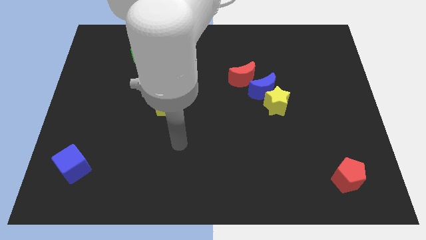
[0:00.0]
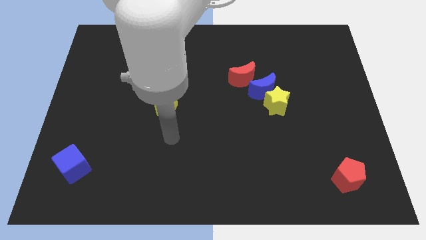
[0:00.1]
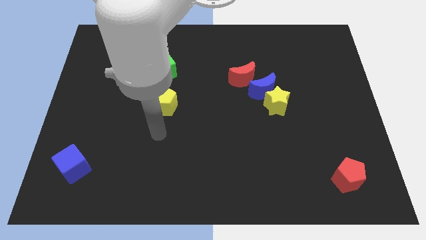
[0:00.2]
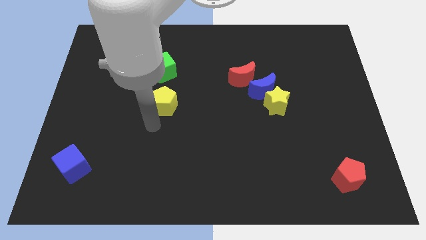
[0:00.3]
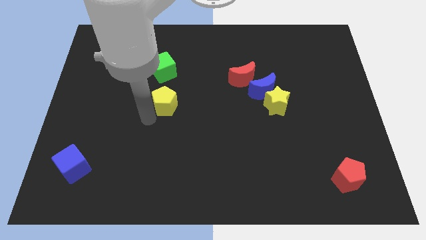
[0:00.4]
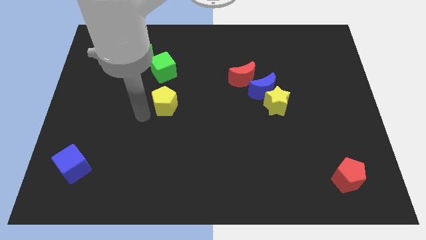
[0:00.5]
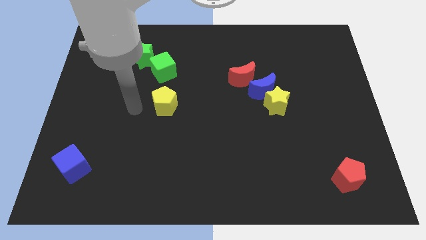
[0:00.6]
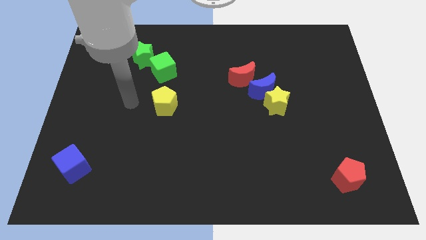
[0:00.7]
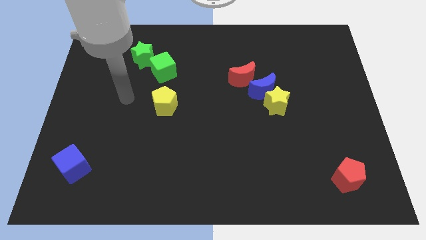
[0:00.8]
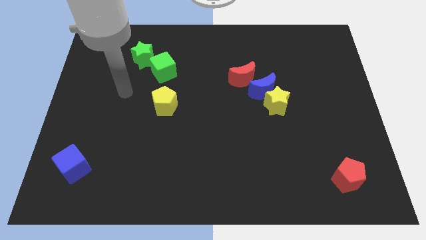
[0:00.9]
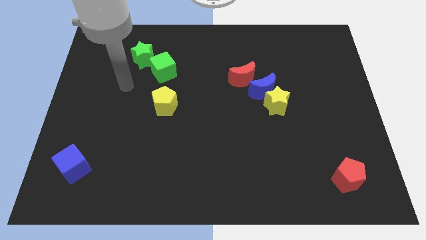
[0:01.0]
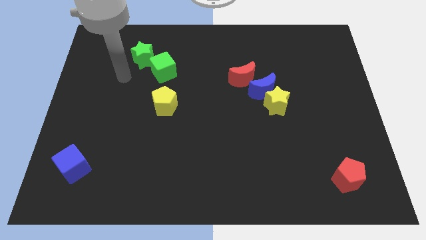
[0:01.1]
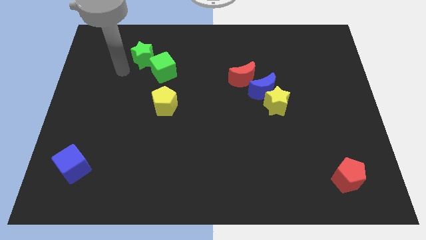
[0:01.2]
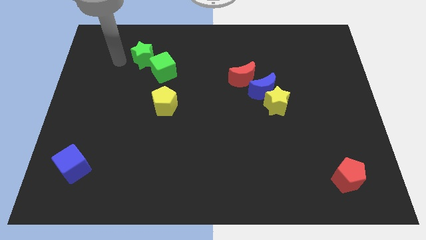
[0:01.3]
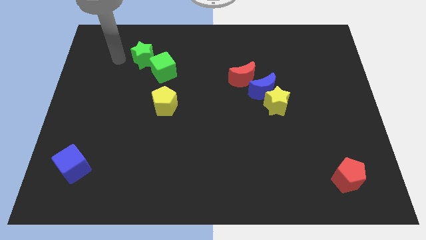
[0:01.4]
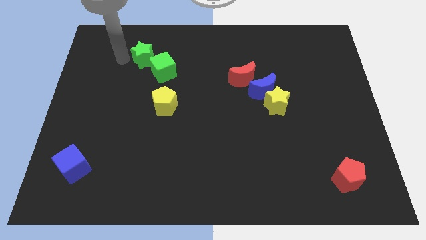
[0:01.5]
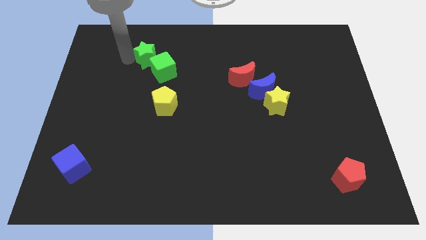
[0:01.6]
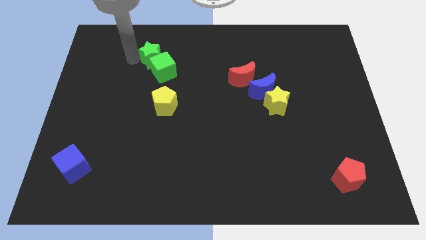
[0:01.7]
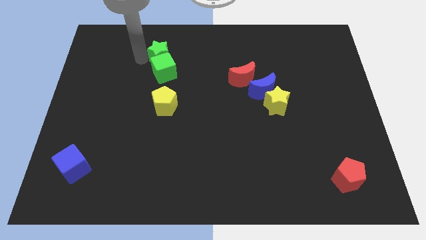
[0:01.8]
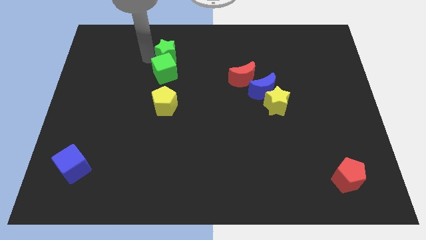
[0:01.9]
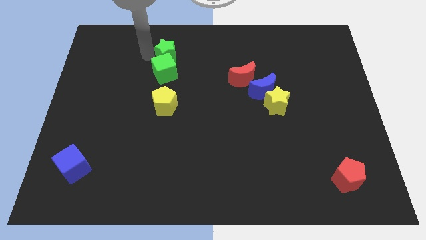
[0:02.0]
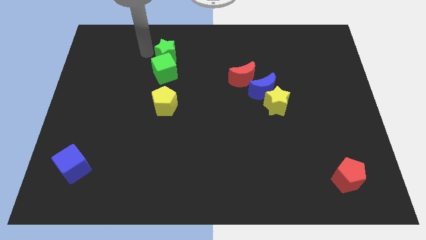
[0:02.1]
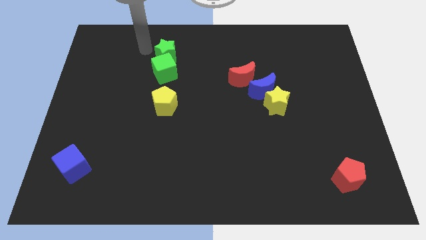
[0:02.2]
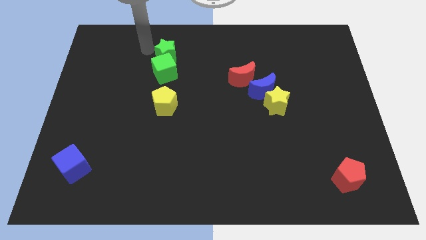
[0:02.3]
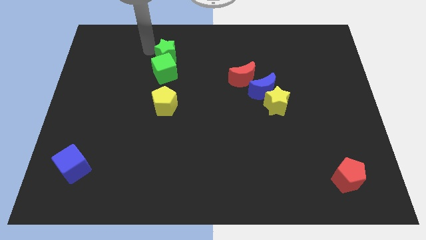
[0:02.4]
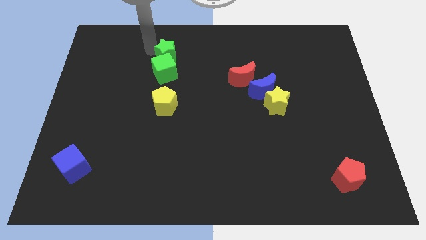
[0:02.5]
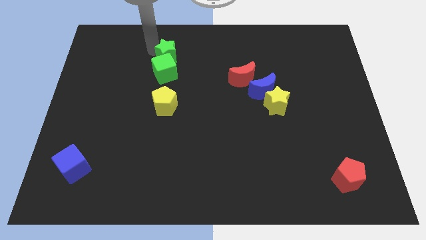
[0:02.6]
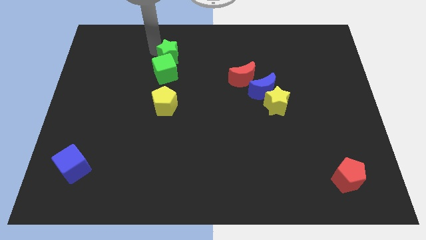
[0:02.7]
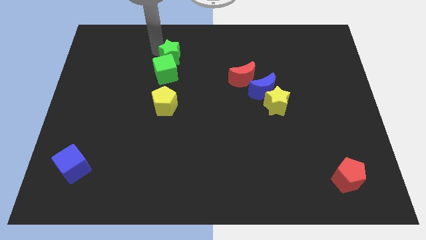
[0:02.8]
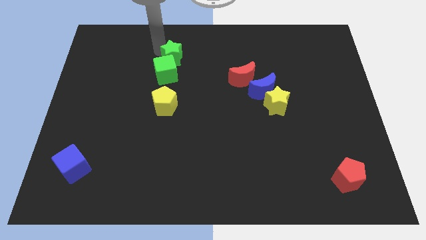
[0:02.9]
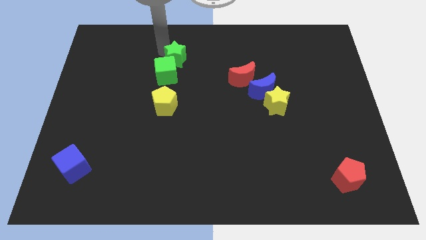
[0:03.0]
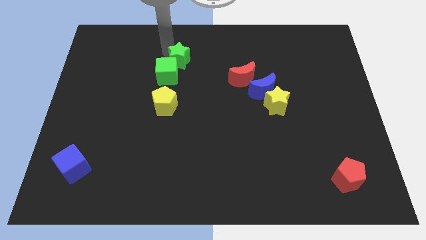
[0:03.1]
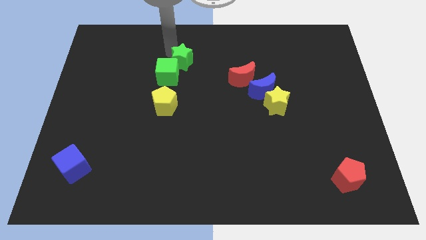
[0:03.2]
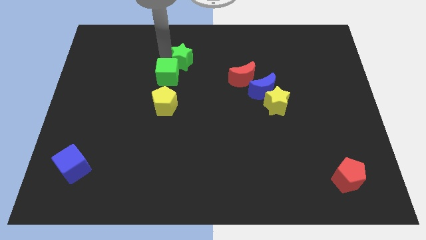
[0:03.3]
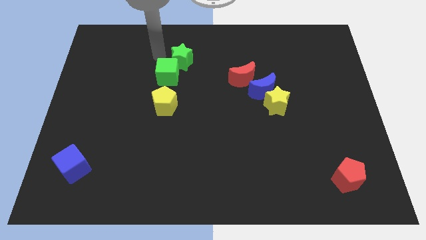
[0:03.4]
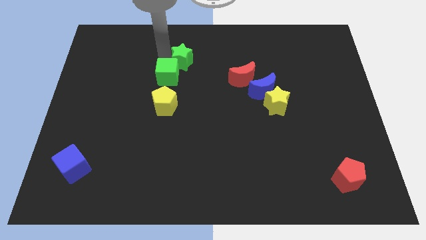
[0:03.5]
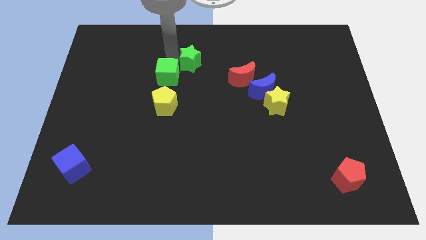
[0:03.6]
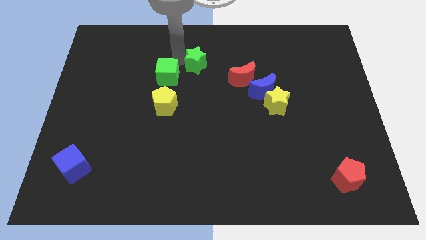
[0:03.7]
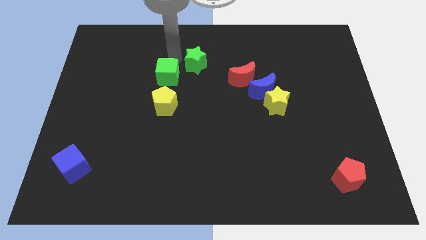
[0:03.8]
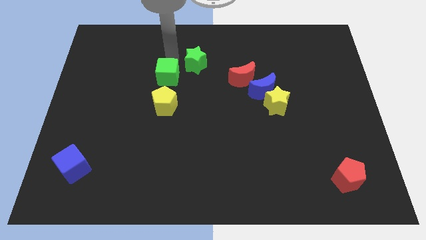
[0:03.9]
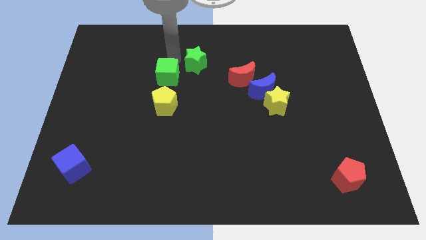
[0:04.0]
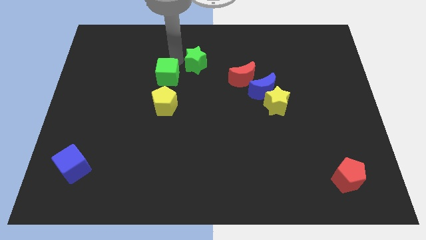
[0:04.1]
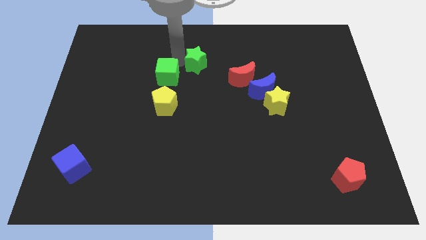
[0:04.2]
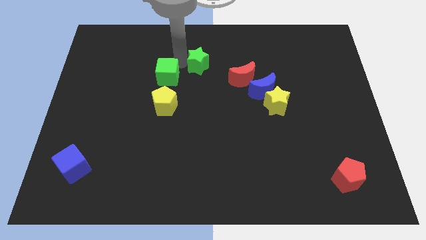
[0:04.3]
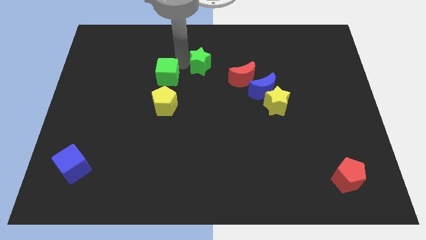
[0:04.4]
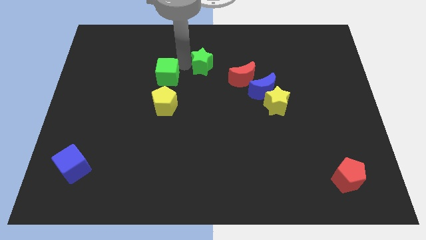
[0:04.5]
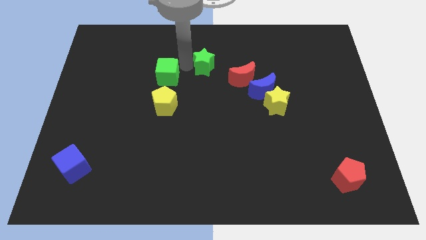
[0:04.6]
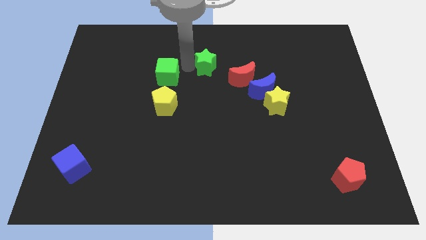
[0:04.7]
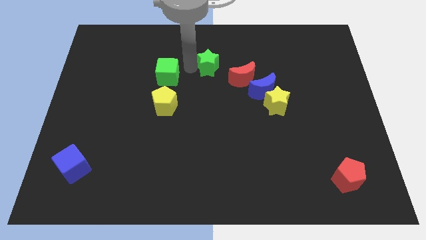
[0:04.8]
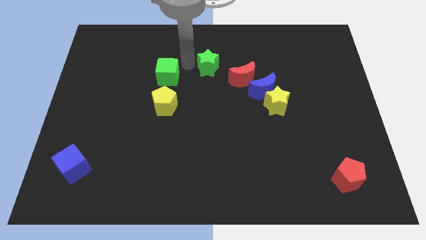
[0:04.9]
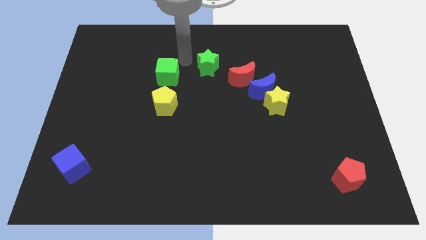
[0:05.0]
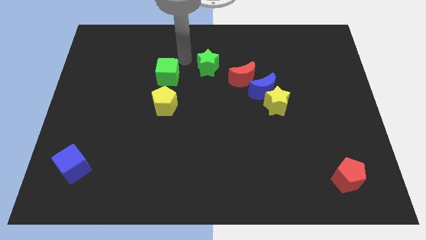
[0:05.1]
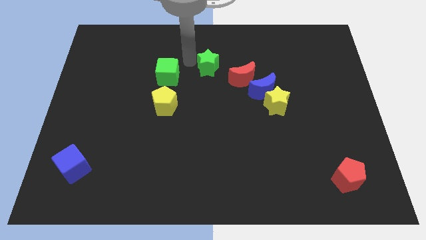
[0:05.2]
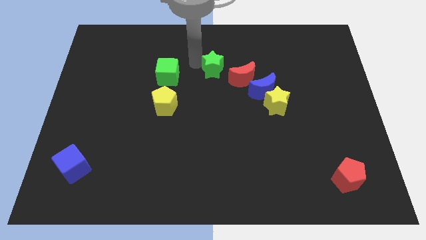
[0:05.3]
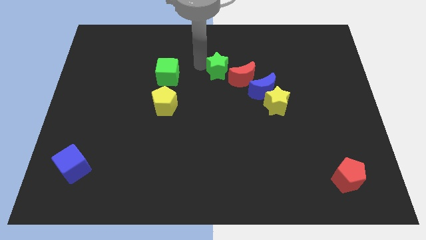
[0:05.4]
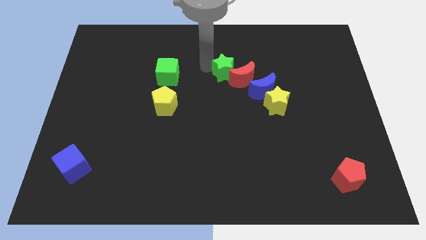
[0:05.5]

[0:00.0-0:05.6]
put the green star next to the red moon

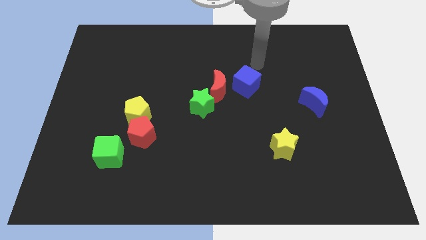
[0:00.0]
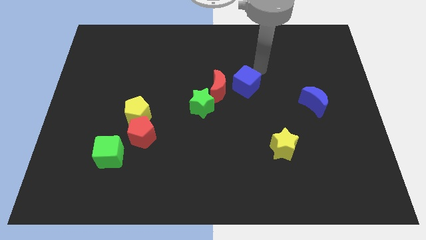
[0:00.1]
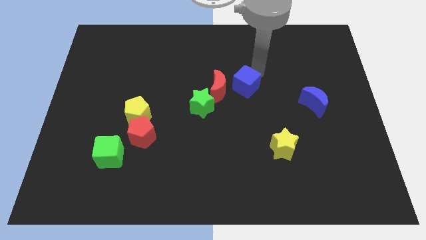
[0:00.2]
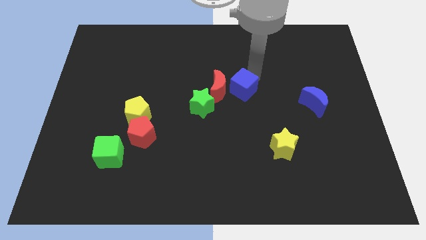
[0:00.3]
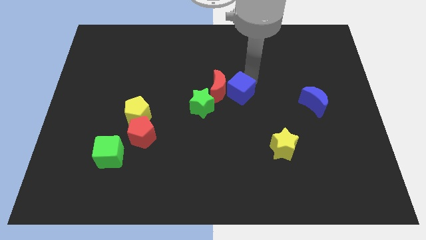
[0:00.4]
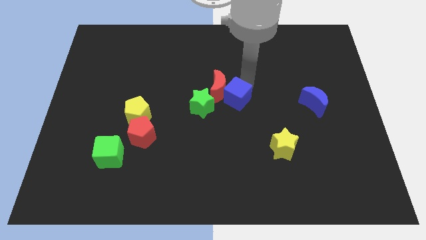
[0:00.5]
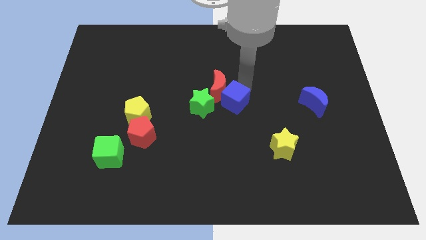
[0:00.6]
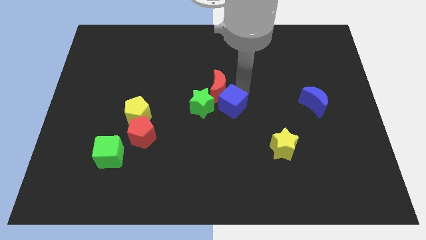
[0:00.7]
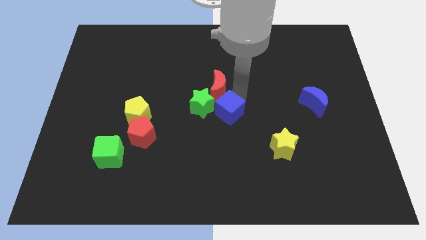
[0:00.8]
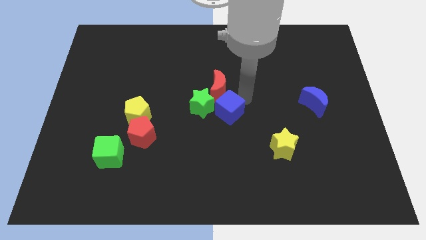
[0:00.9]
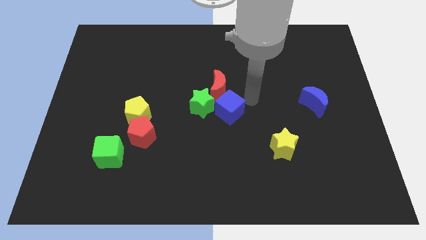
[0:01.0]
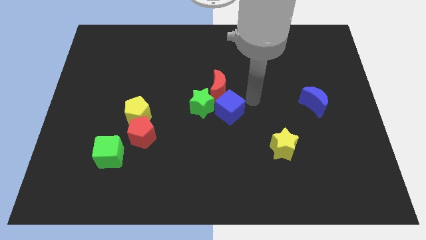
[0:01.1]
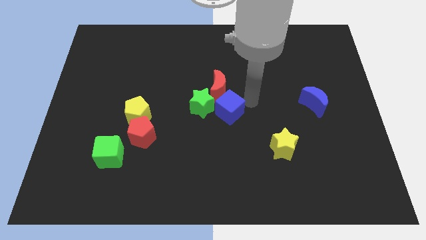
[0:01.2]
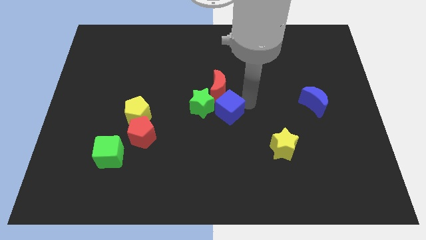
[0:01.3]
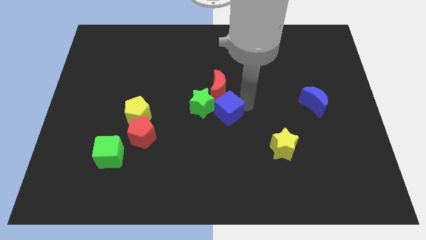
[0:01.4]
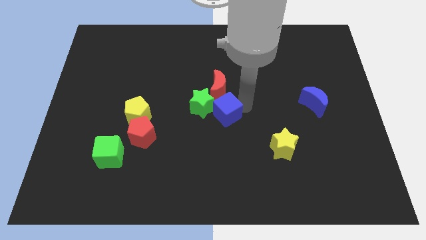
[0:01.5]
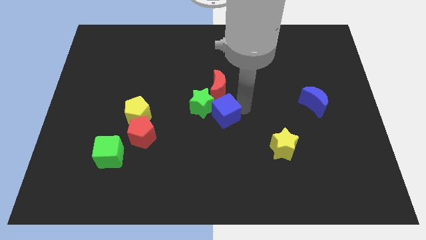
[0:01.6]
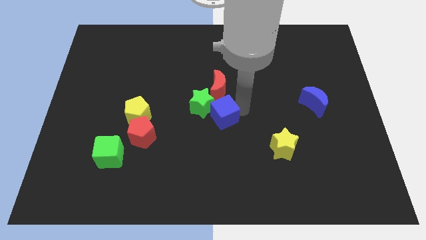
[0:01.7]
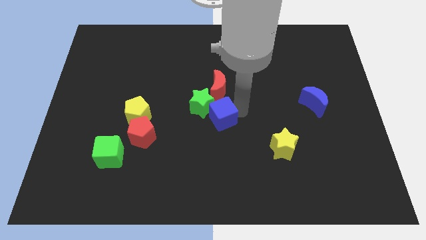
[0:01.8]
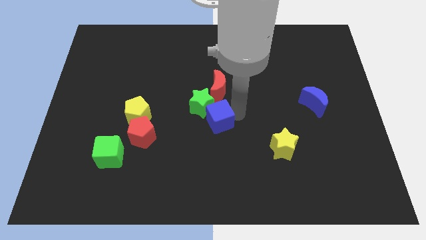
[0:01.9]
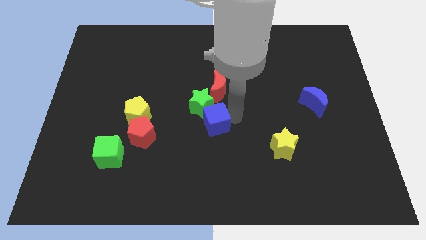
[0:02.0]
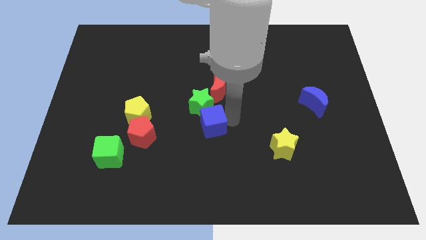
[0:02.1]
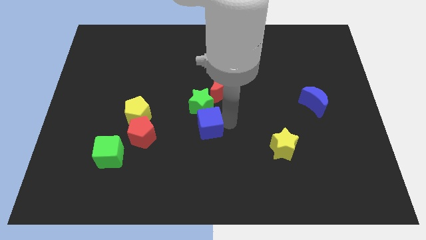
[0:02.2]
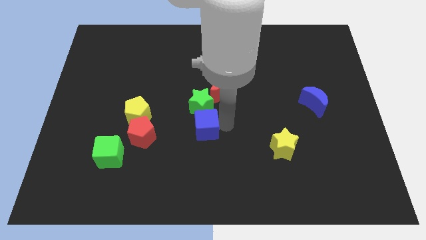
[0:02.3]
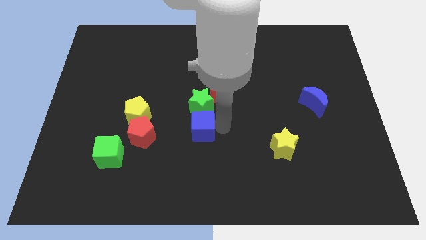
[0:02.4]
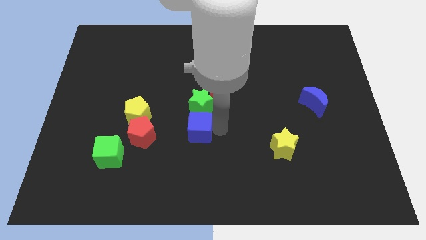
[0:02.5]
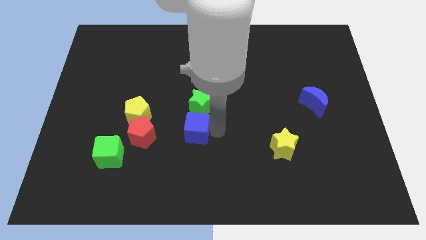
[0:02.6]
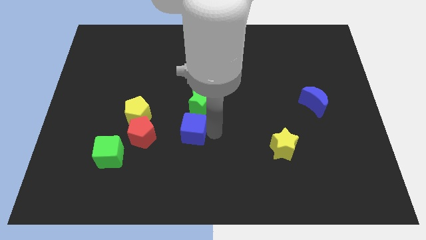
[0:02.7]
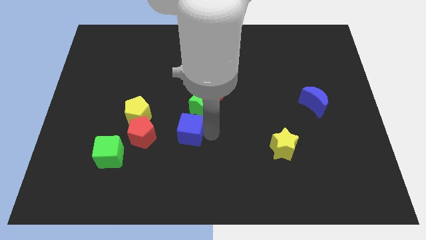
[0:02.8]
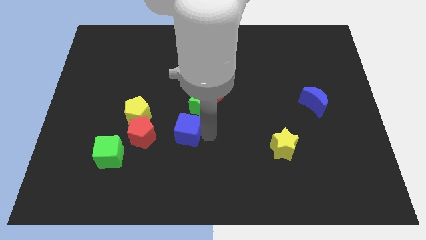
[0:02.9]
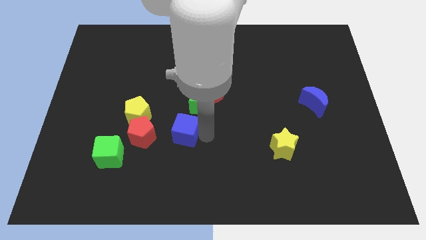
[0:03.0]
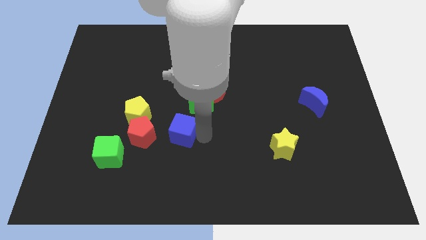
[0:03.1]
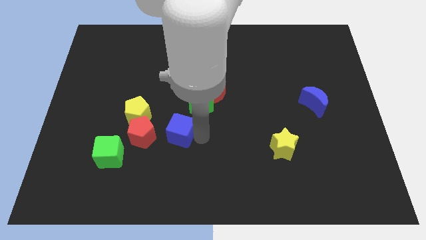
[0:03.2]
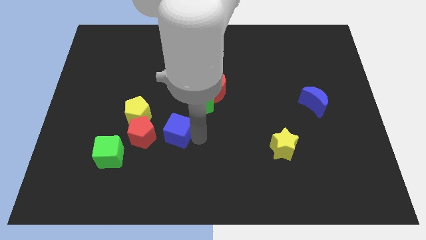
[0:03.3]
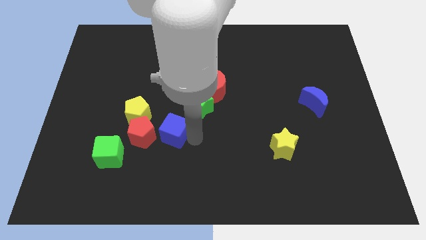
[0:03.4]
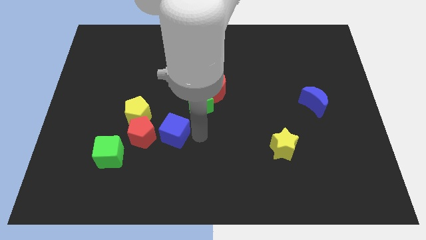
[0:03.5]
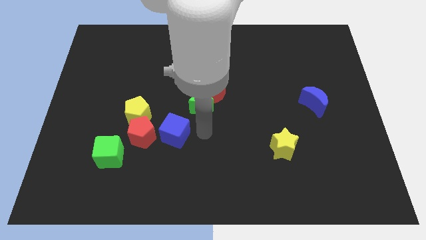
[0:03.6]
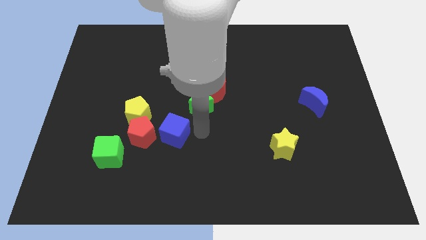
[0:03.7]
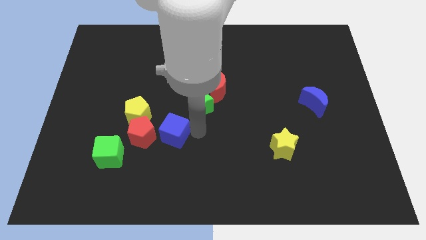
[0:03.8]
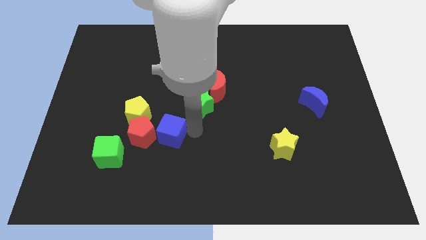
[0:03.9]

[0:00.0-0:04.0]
push the blue cube to the red pentagon
